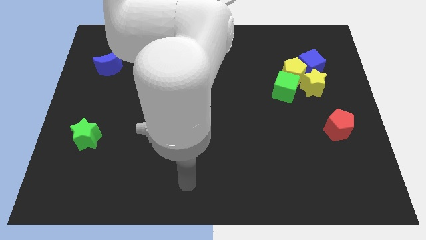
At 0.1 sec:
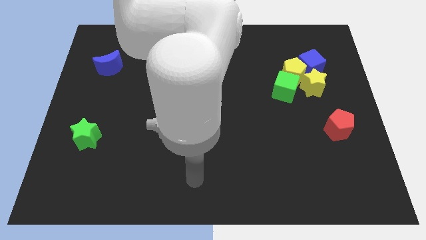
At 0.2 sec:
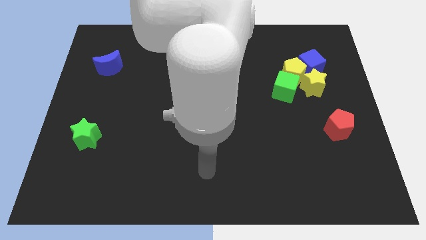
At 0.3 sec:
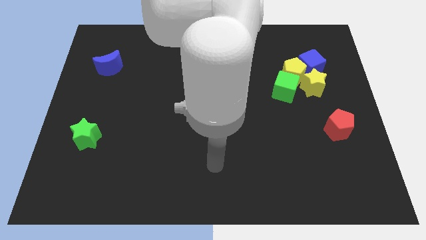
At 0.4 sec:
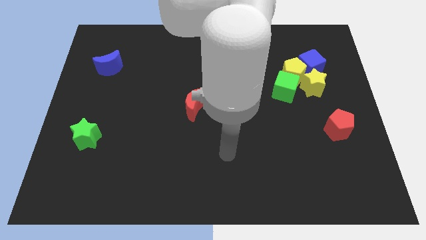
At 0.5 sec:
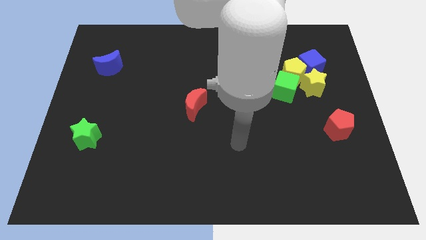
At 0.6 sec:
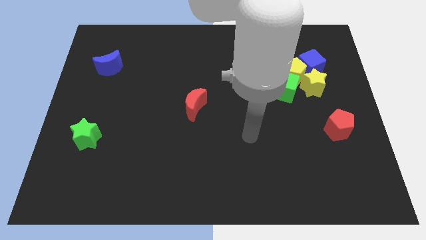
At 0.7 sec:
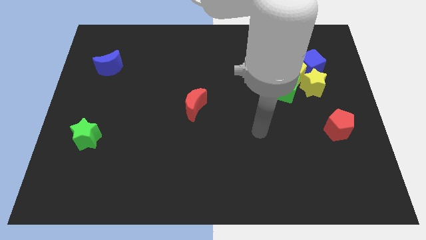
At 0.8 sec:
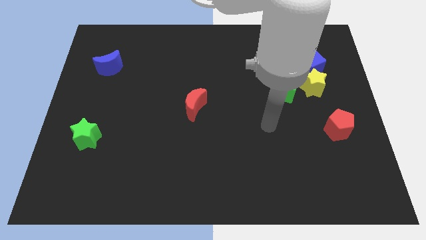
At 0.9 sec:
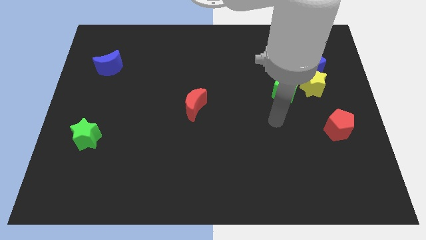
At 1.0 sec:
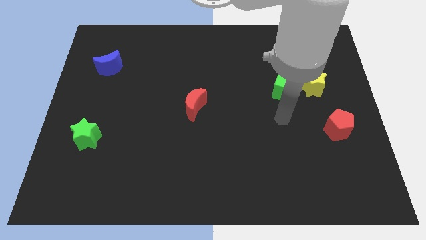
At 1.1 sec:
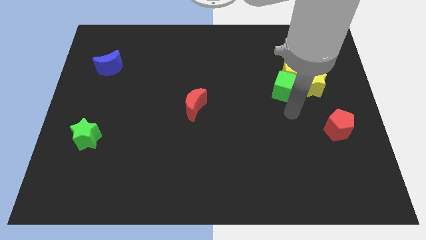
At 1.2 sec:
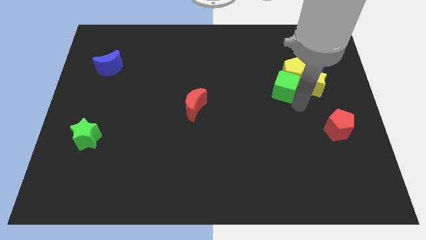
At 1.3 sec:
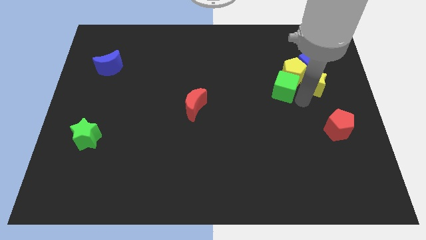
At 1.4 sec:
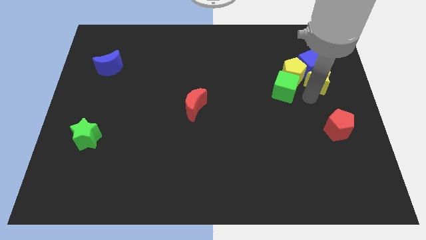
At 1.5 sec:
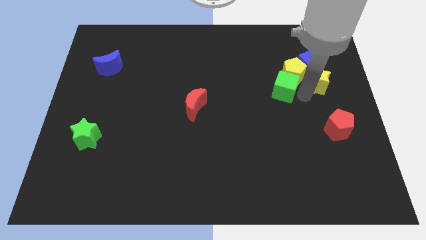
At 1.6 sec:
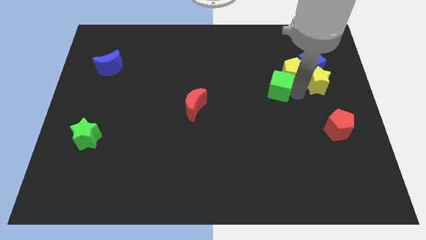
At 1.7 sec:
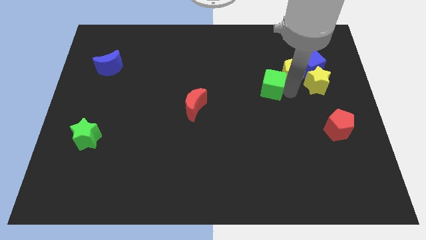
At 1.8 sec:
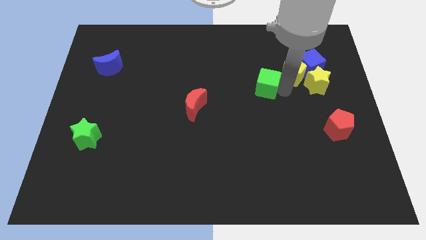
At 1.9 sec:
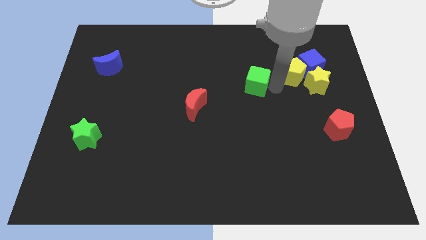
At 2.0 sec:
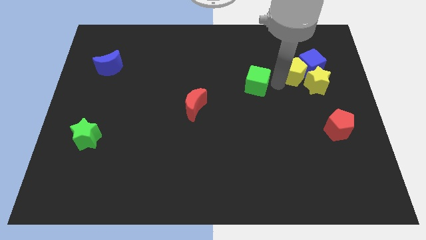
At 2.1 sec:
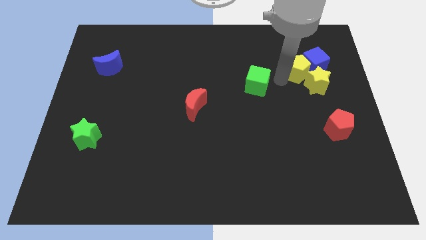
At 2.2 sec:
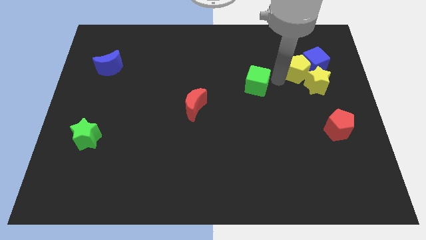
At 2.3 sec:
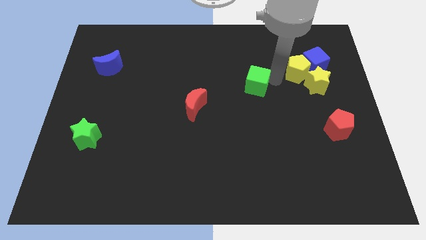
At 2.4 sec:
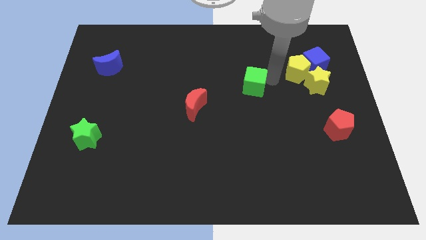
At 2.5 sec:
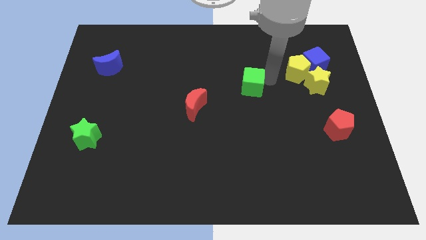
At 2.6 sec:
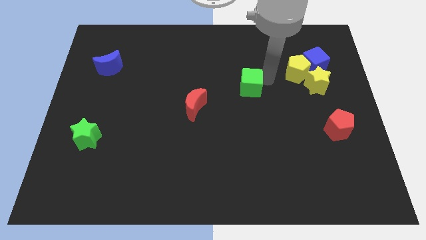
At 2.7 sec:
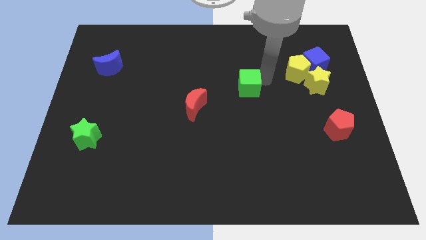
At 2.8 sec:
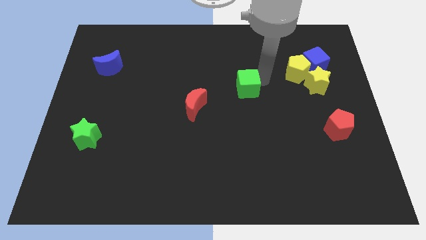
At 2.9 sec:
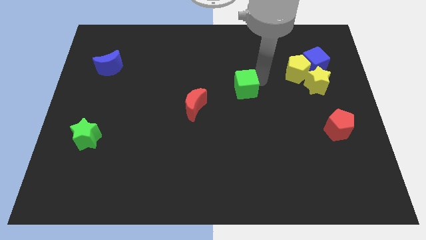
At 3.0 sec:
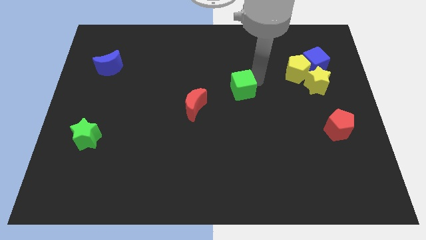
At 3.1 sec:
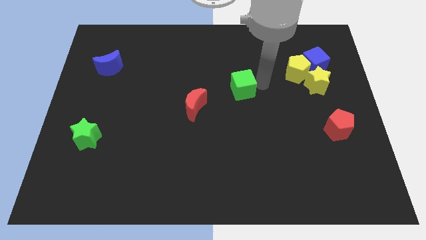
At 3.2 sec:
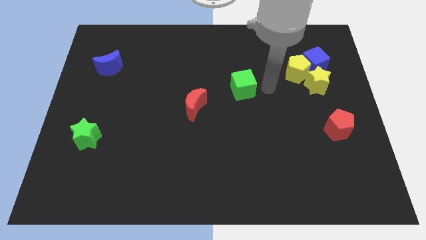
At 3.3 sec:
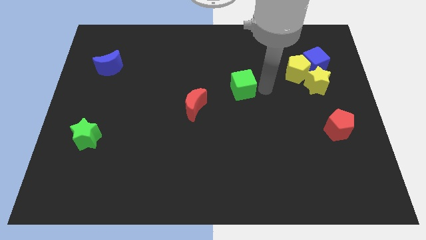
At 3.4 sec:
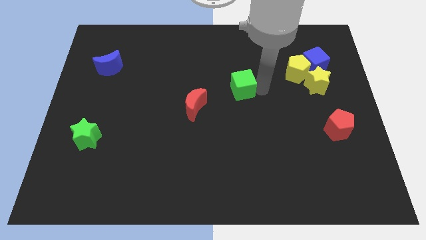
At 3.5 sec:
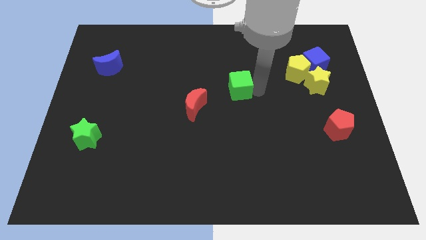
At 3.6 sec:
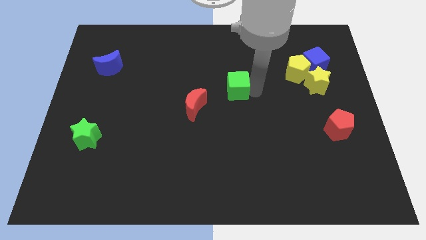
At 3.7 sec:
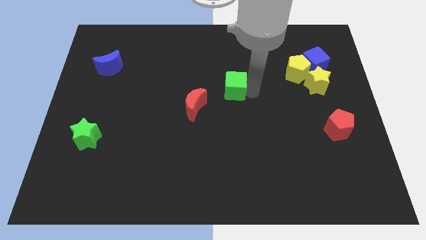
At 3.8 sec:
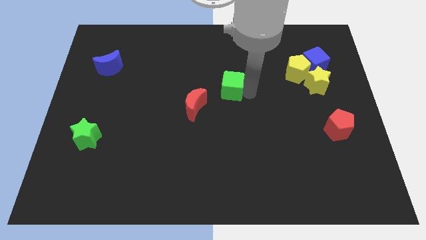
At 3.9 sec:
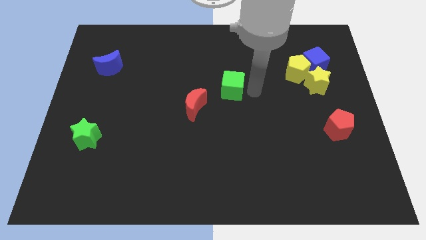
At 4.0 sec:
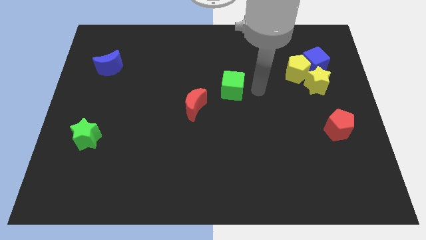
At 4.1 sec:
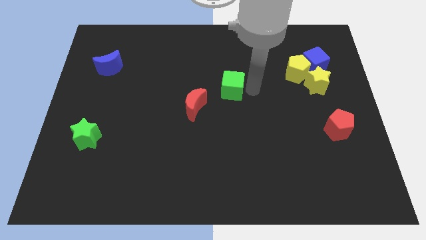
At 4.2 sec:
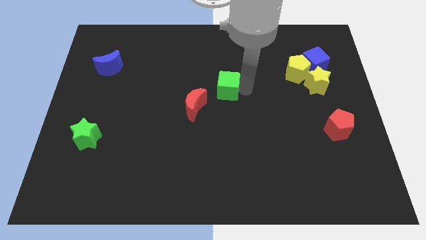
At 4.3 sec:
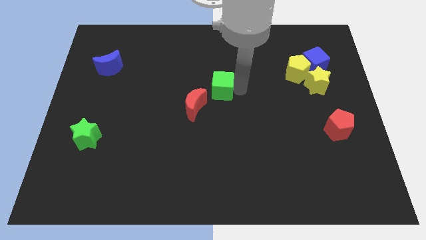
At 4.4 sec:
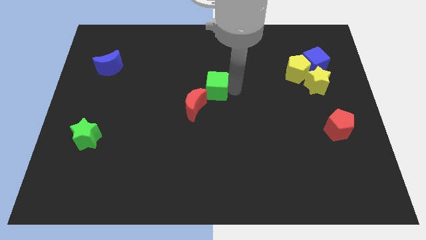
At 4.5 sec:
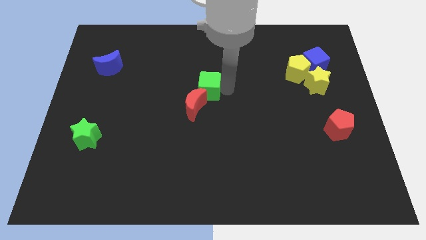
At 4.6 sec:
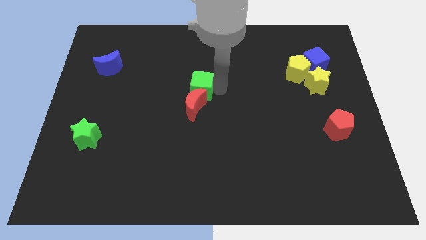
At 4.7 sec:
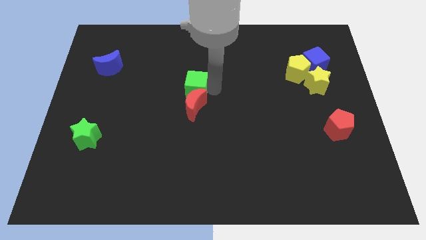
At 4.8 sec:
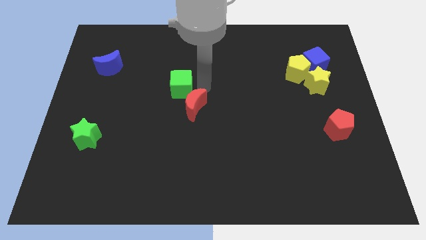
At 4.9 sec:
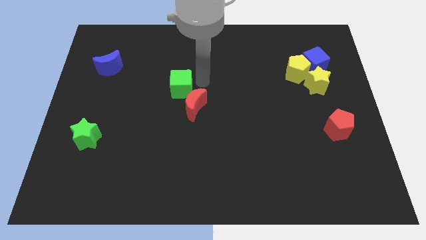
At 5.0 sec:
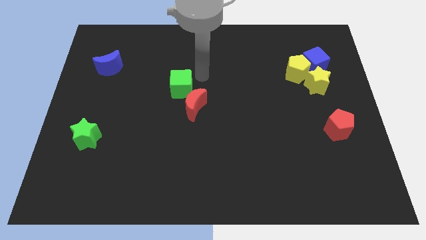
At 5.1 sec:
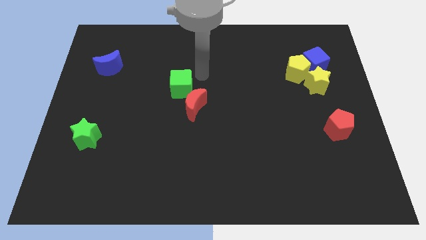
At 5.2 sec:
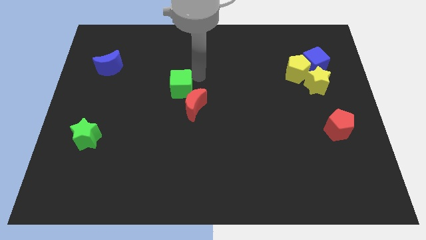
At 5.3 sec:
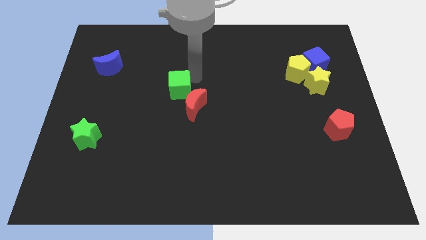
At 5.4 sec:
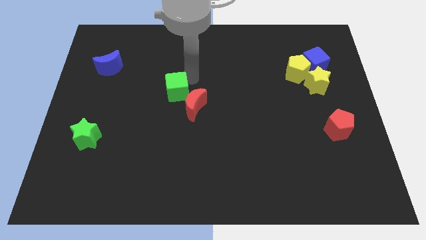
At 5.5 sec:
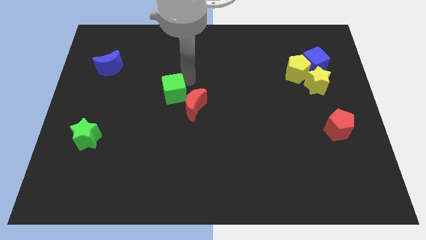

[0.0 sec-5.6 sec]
put the green cube left of the red moon

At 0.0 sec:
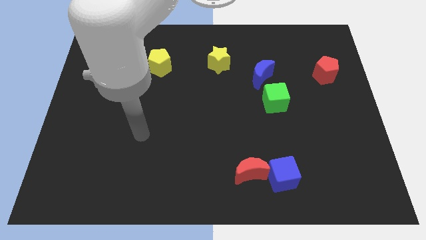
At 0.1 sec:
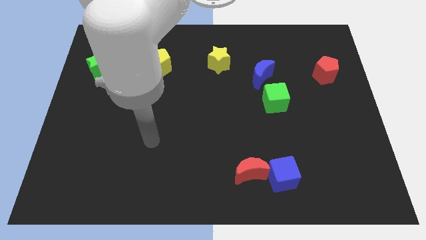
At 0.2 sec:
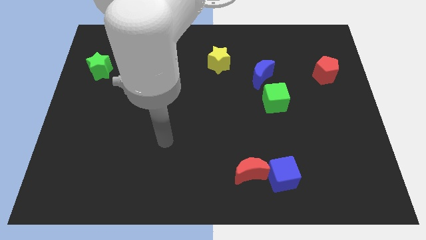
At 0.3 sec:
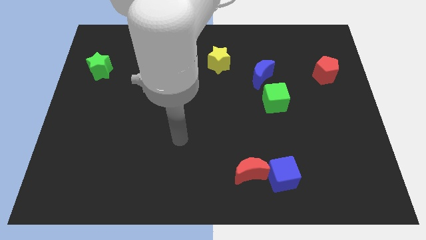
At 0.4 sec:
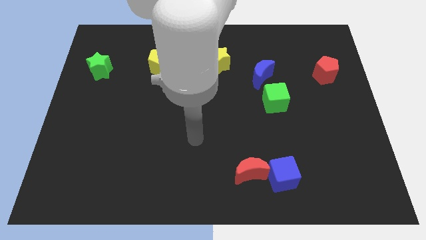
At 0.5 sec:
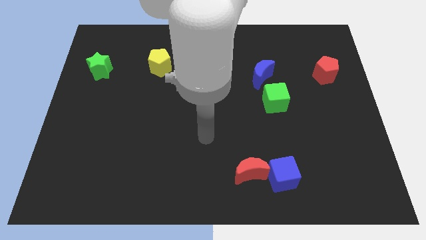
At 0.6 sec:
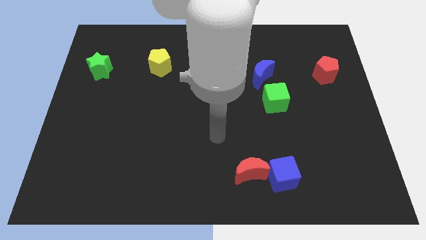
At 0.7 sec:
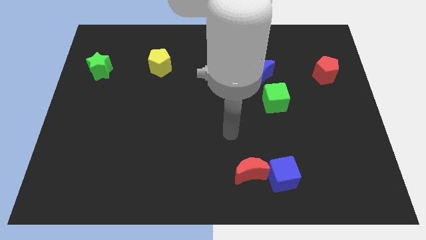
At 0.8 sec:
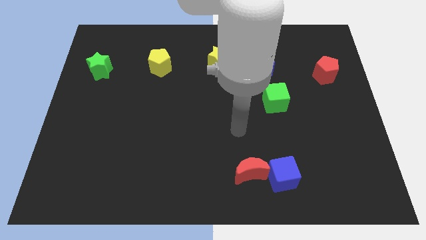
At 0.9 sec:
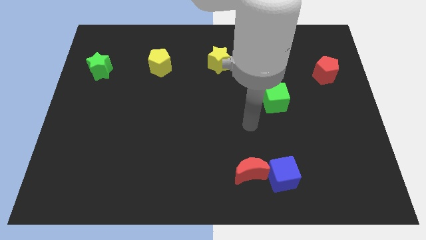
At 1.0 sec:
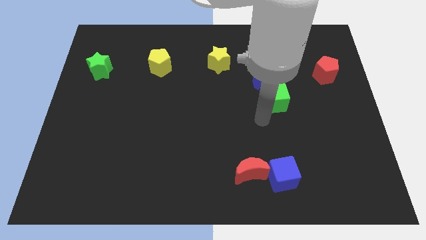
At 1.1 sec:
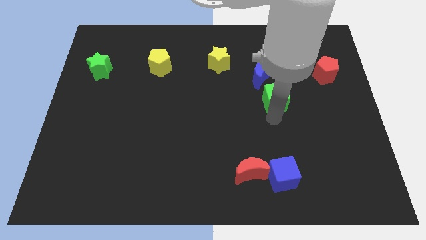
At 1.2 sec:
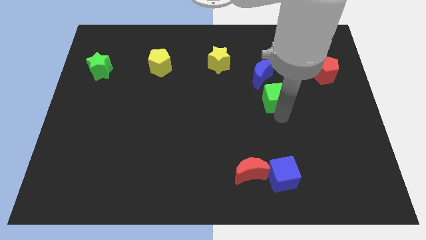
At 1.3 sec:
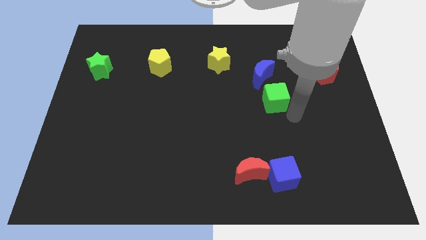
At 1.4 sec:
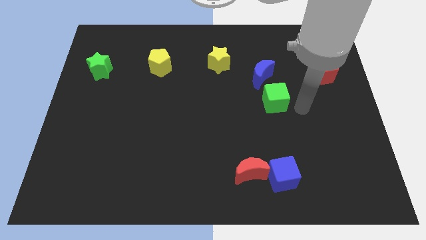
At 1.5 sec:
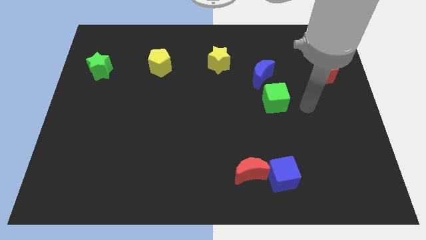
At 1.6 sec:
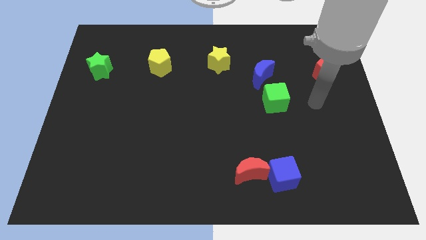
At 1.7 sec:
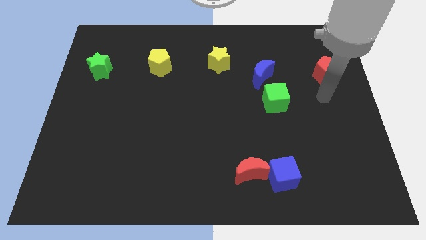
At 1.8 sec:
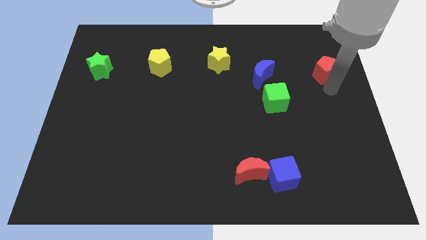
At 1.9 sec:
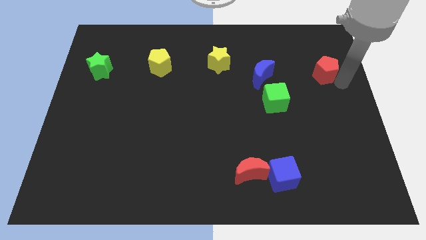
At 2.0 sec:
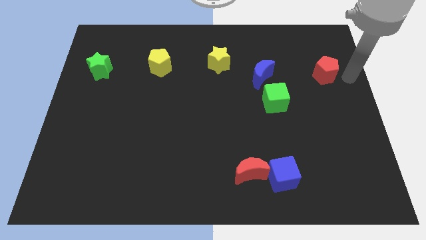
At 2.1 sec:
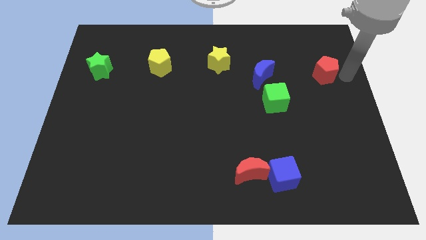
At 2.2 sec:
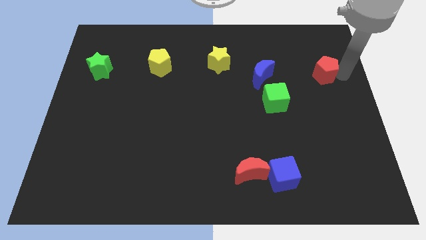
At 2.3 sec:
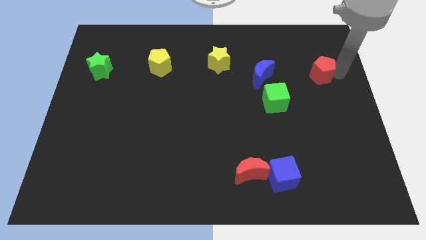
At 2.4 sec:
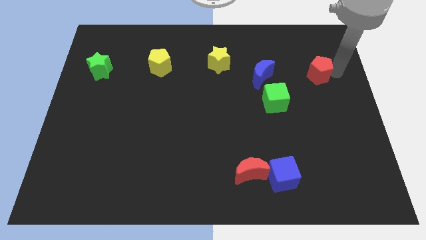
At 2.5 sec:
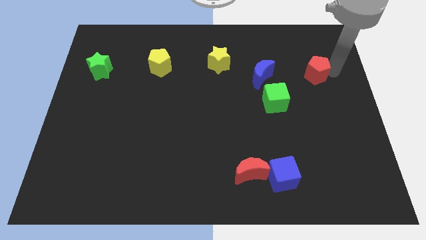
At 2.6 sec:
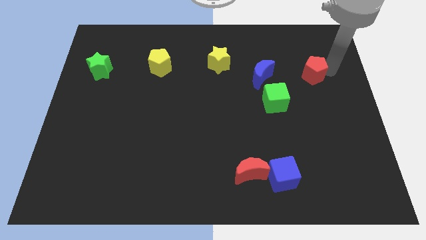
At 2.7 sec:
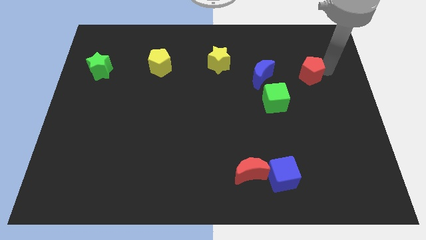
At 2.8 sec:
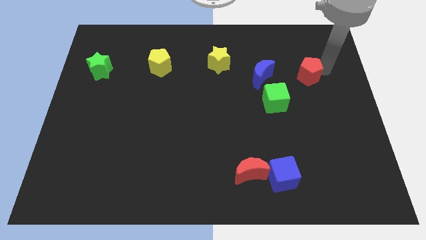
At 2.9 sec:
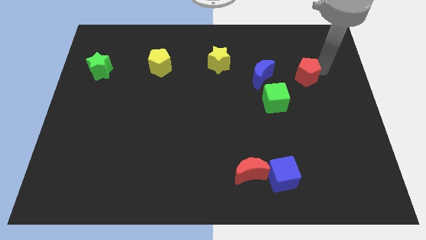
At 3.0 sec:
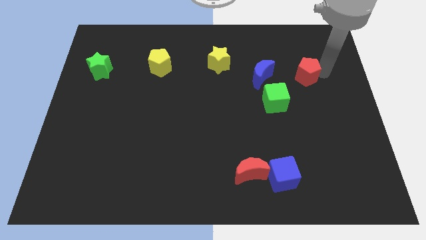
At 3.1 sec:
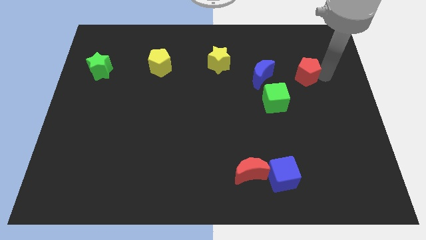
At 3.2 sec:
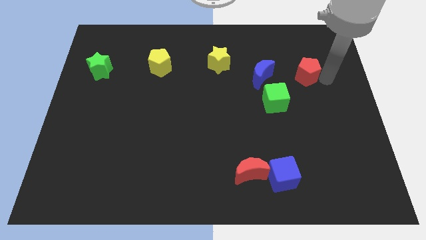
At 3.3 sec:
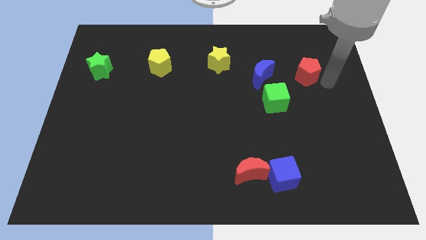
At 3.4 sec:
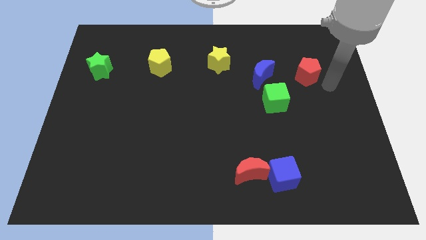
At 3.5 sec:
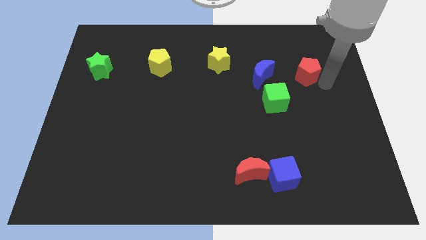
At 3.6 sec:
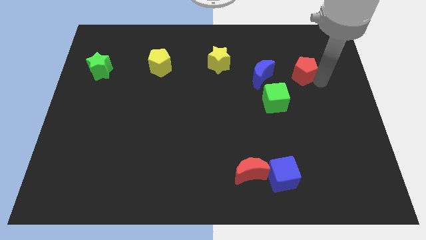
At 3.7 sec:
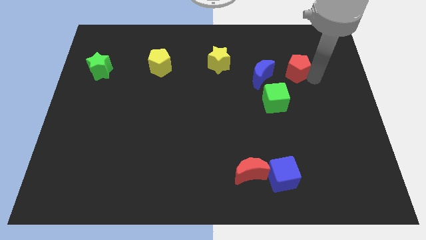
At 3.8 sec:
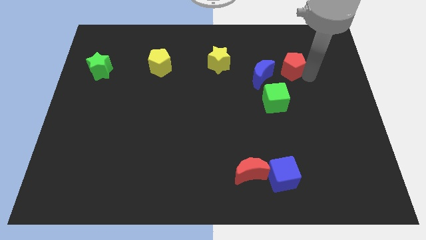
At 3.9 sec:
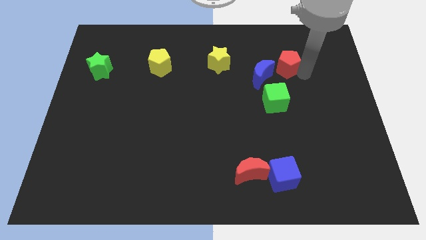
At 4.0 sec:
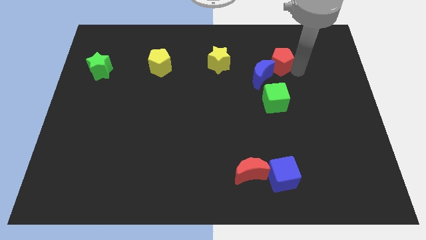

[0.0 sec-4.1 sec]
slide the red pentagon to the right of the yellow star
